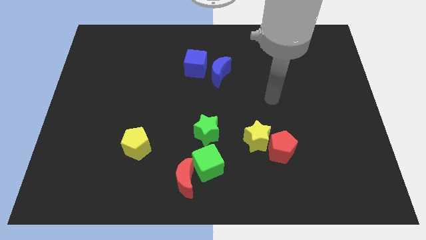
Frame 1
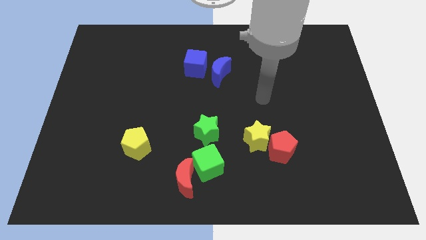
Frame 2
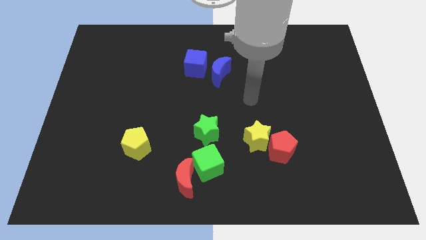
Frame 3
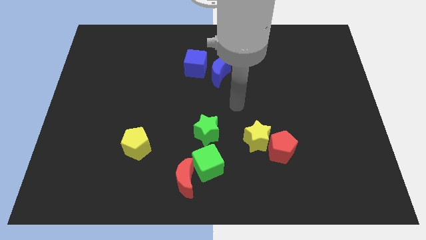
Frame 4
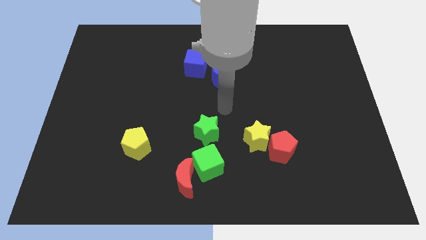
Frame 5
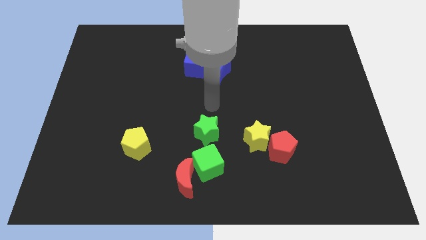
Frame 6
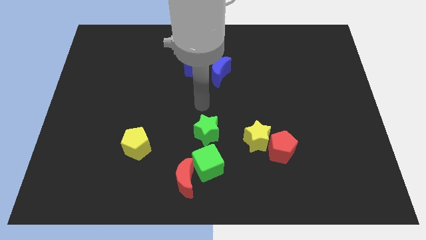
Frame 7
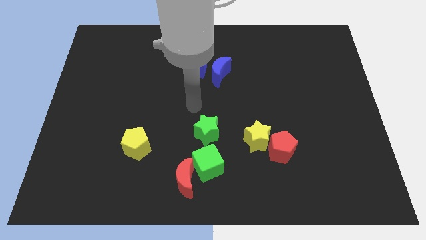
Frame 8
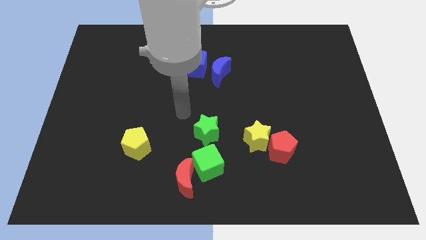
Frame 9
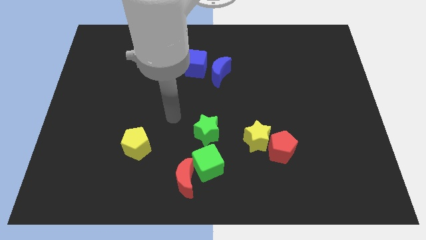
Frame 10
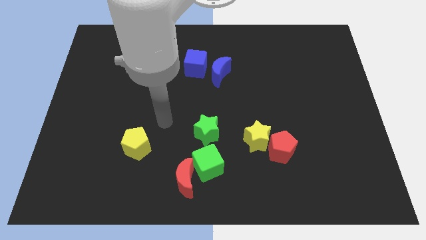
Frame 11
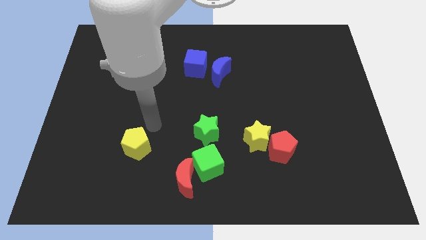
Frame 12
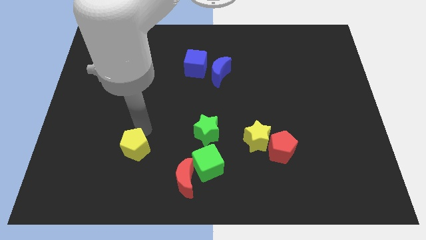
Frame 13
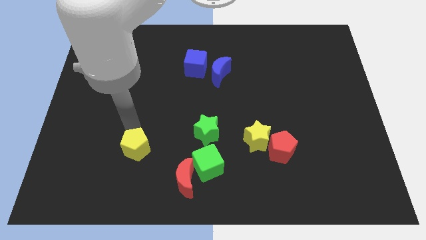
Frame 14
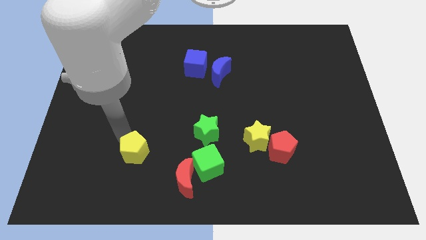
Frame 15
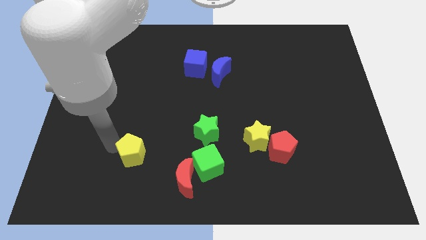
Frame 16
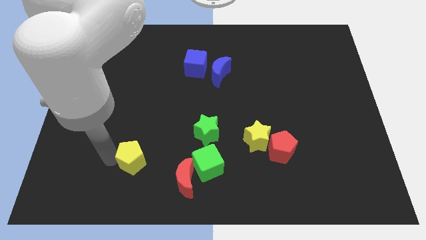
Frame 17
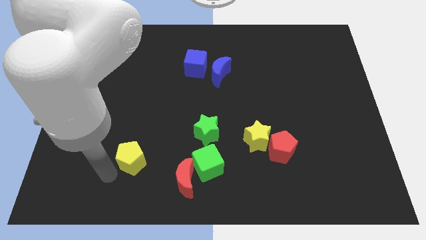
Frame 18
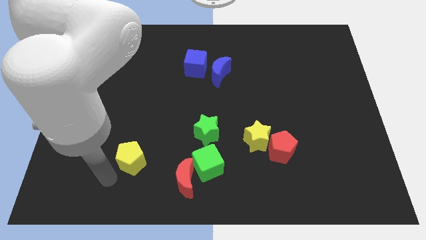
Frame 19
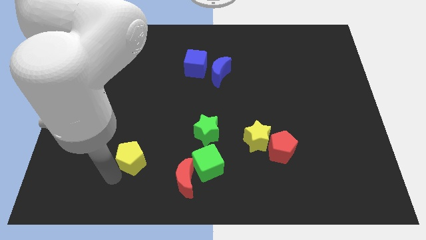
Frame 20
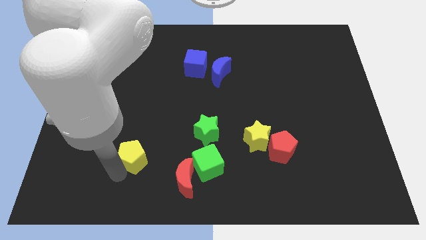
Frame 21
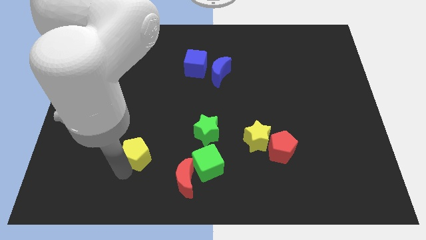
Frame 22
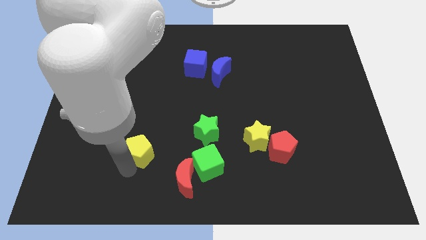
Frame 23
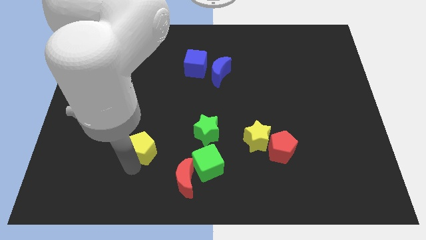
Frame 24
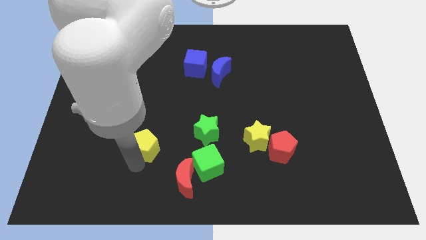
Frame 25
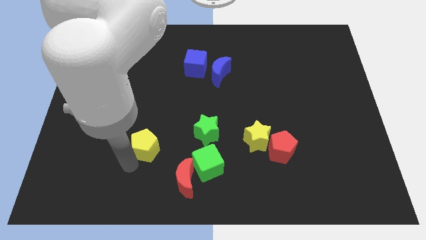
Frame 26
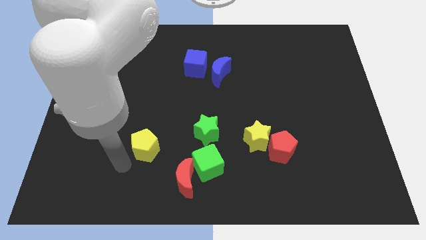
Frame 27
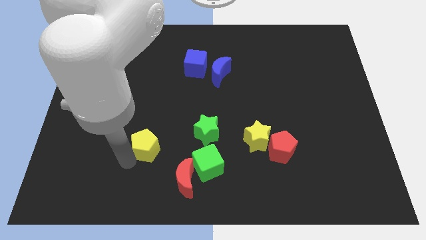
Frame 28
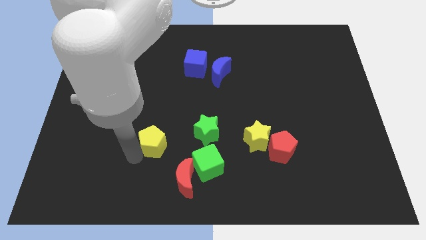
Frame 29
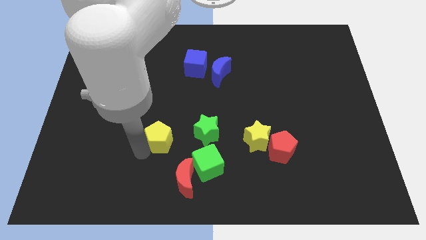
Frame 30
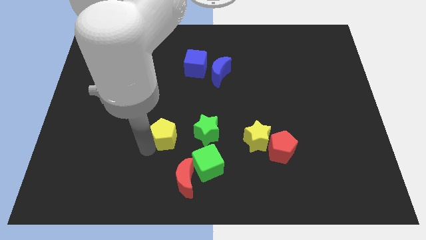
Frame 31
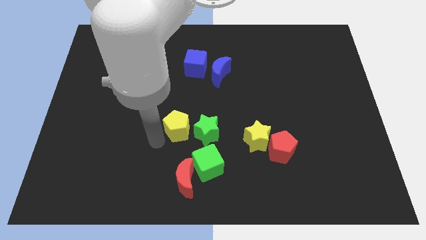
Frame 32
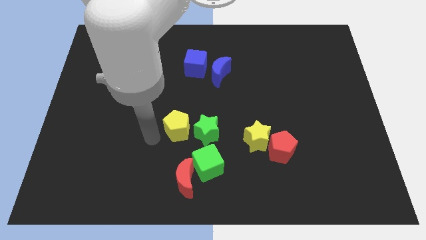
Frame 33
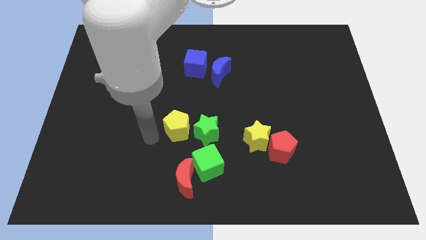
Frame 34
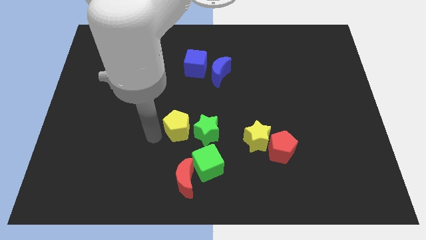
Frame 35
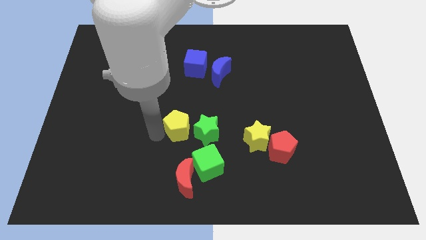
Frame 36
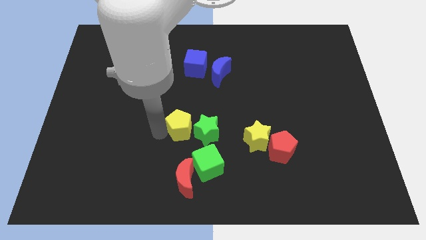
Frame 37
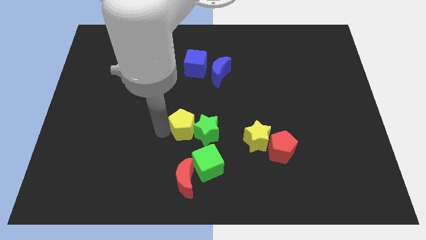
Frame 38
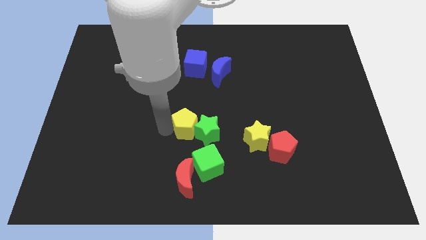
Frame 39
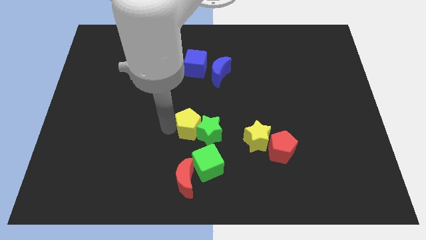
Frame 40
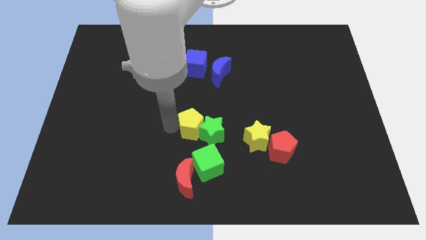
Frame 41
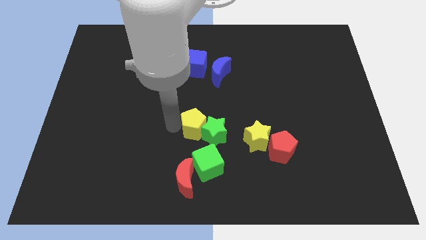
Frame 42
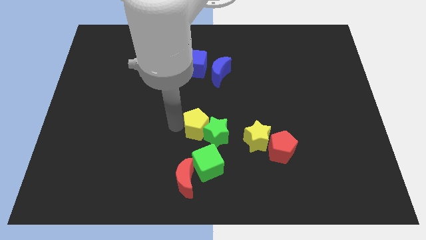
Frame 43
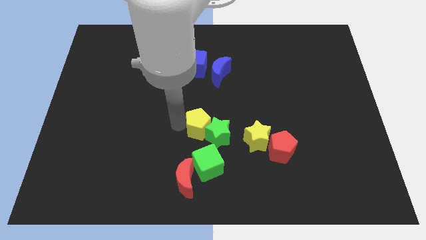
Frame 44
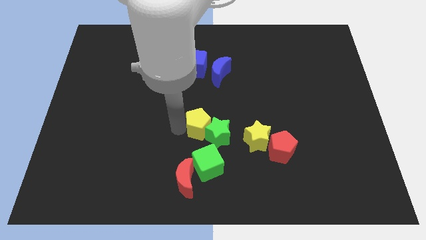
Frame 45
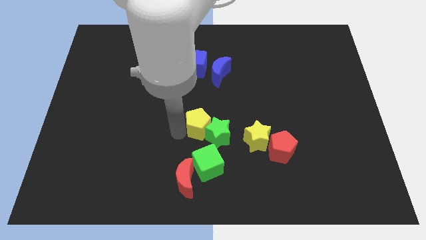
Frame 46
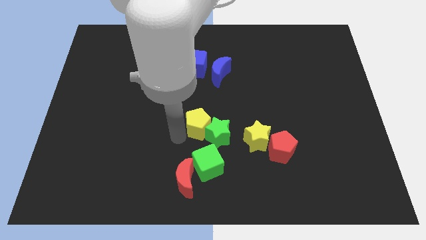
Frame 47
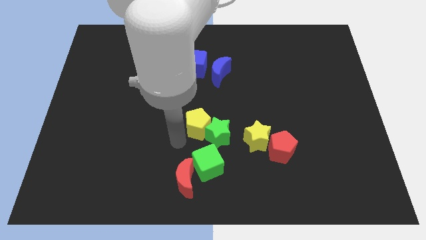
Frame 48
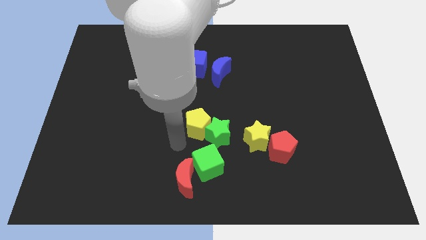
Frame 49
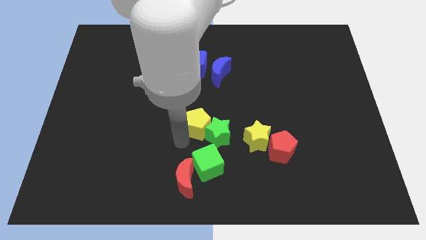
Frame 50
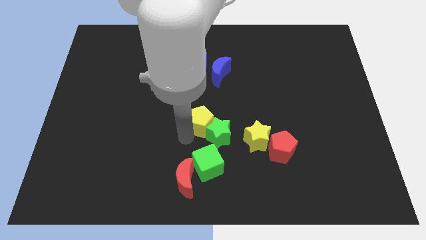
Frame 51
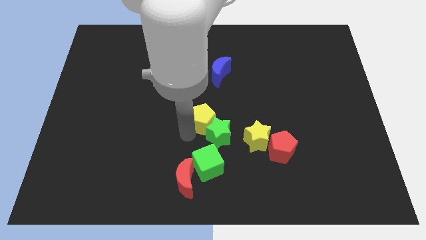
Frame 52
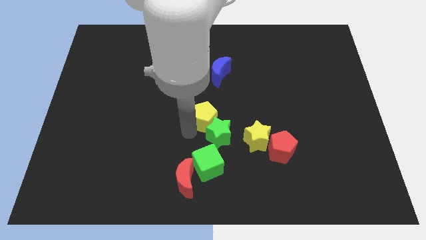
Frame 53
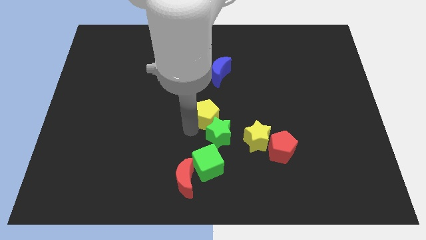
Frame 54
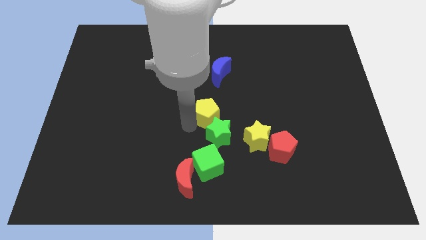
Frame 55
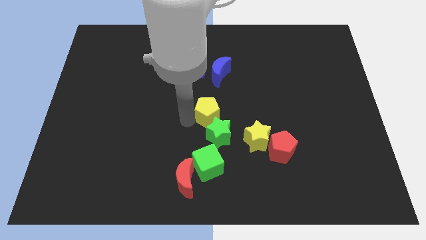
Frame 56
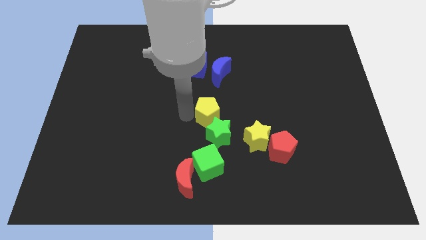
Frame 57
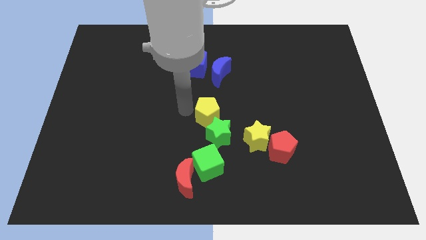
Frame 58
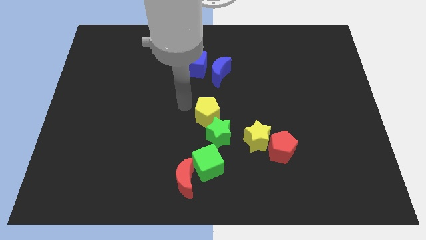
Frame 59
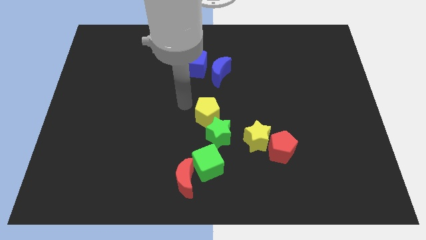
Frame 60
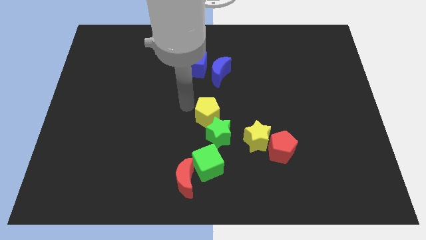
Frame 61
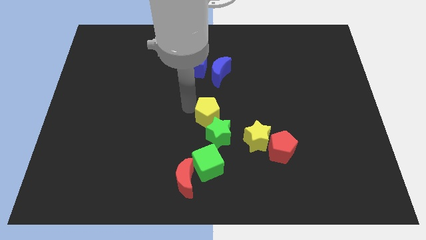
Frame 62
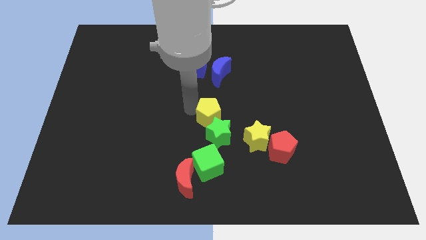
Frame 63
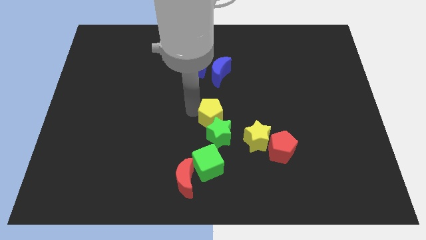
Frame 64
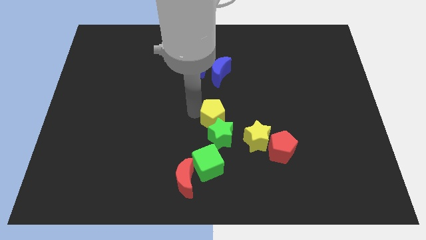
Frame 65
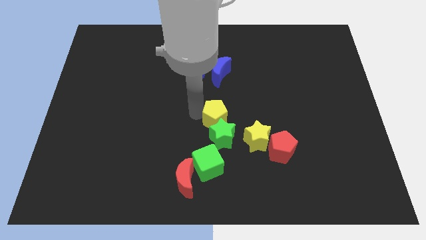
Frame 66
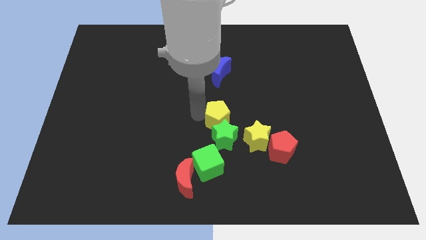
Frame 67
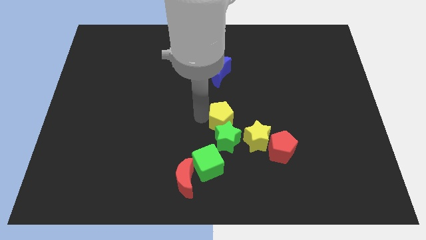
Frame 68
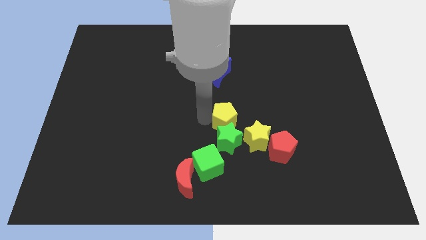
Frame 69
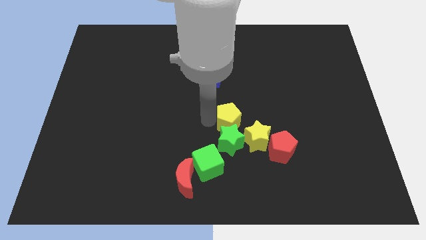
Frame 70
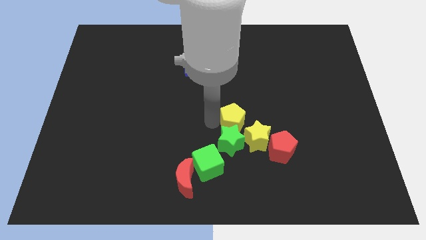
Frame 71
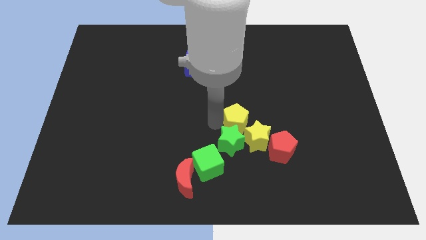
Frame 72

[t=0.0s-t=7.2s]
put the yellow pentagon towards the yellow star
